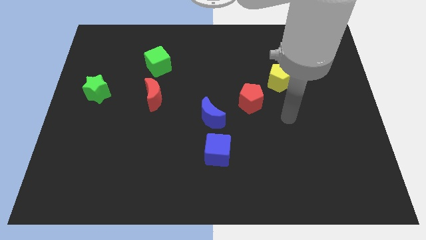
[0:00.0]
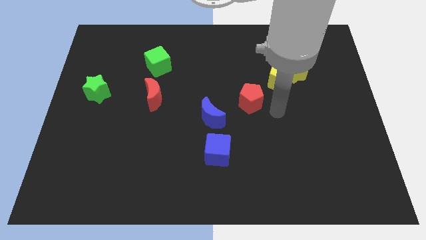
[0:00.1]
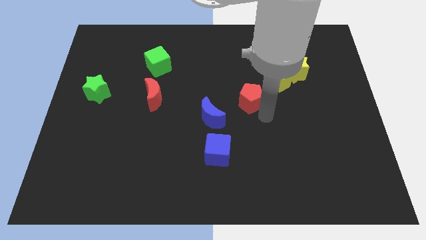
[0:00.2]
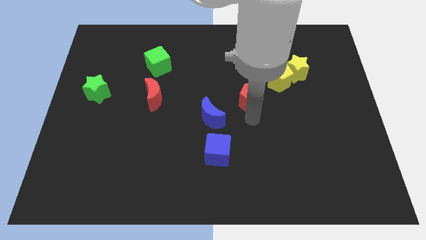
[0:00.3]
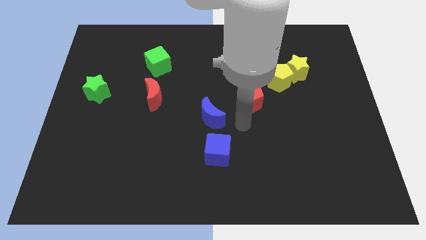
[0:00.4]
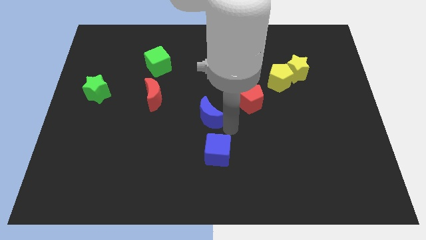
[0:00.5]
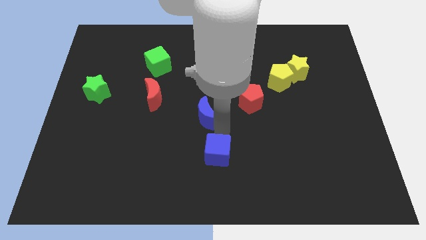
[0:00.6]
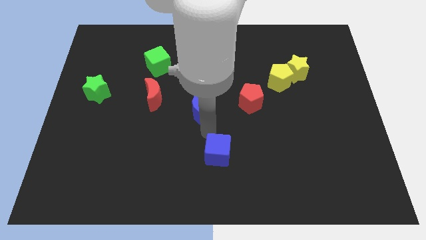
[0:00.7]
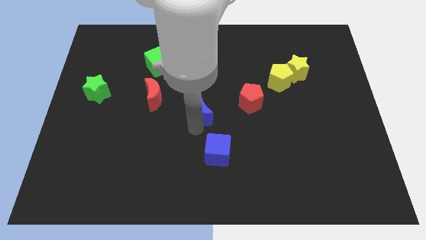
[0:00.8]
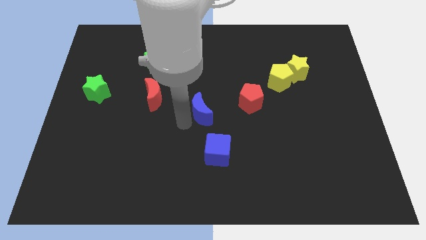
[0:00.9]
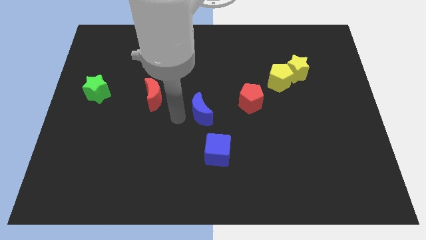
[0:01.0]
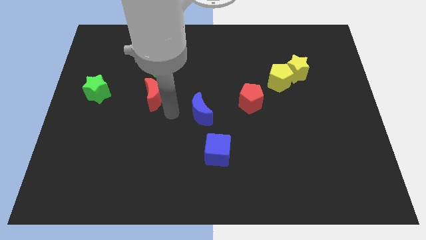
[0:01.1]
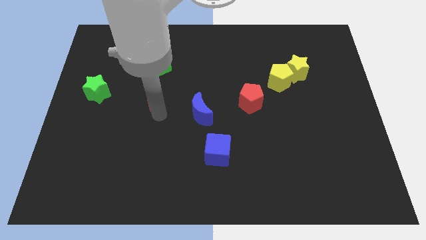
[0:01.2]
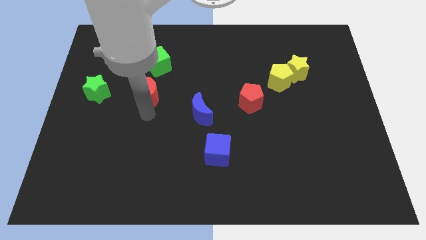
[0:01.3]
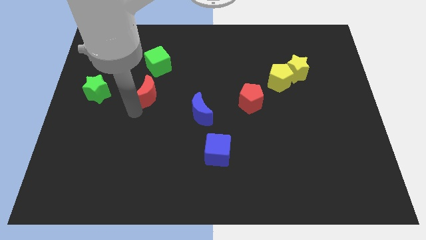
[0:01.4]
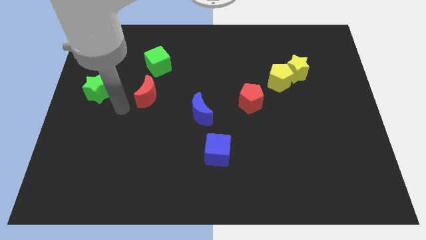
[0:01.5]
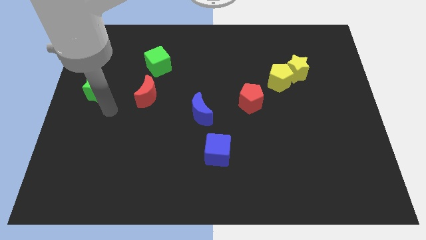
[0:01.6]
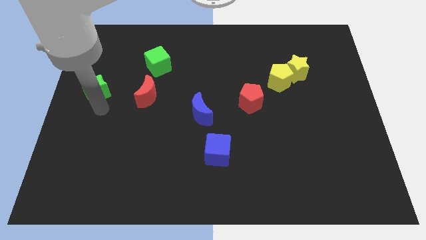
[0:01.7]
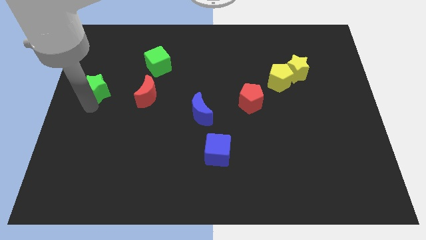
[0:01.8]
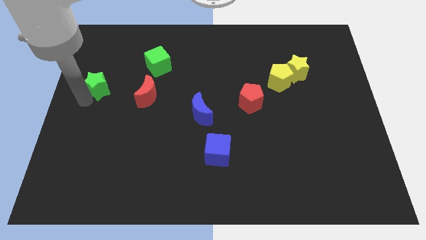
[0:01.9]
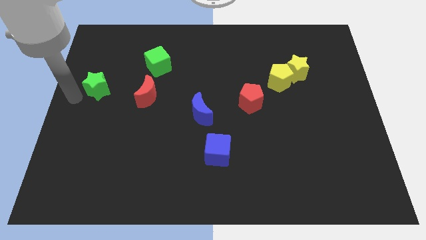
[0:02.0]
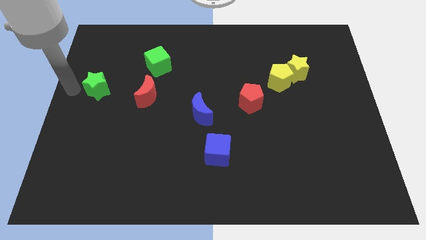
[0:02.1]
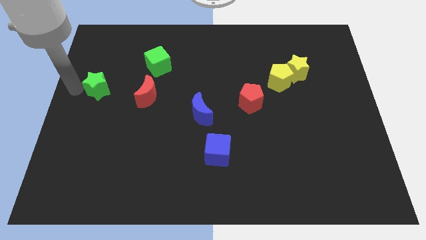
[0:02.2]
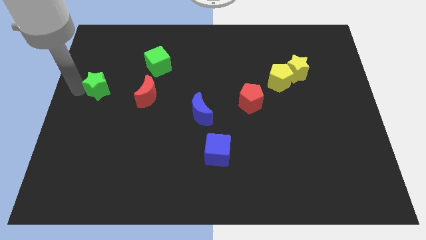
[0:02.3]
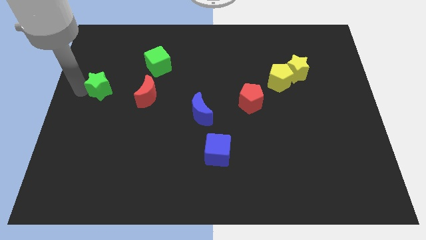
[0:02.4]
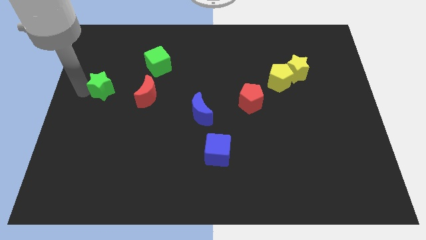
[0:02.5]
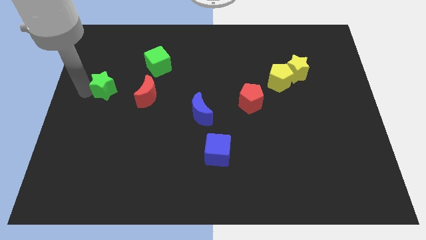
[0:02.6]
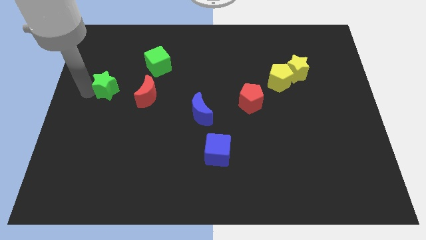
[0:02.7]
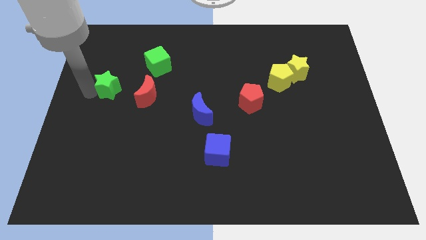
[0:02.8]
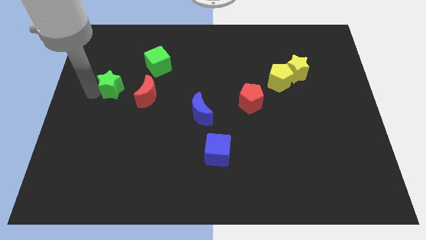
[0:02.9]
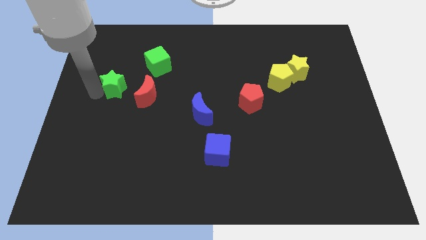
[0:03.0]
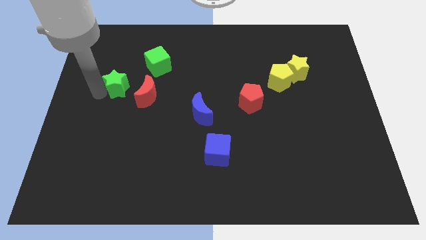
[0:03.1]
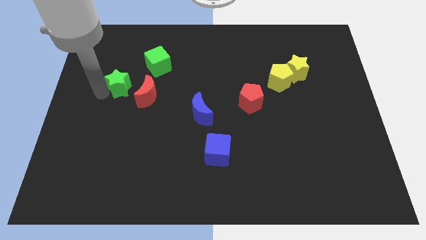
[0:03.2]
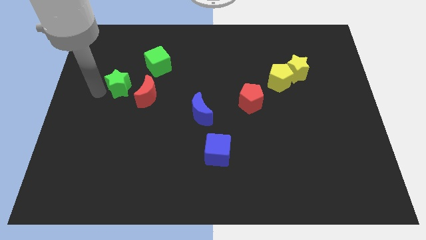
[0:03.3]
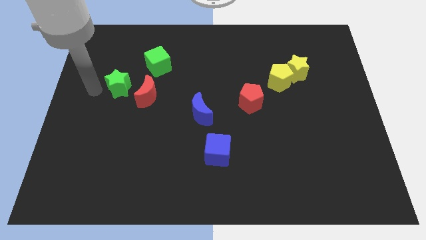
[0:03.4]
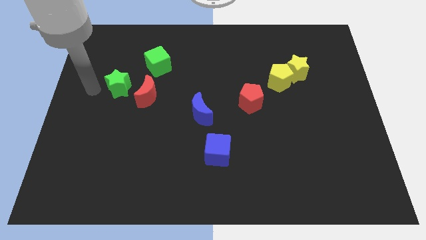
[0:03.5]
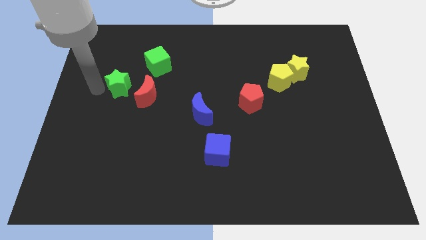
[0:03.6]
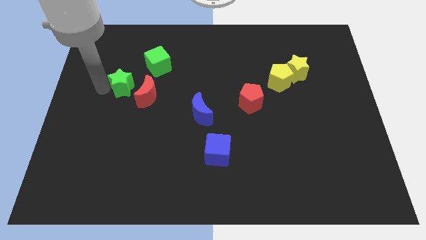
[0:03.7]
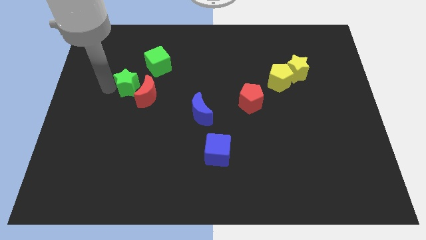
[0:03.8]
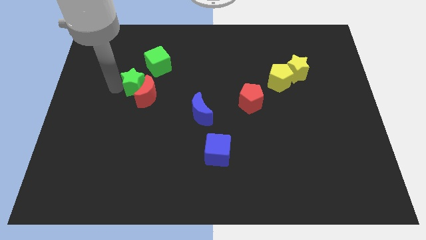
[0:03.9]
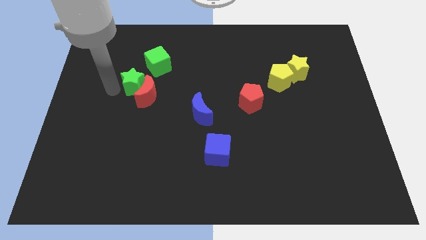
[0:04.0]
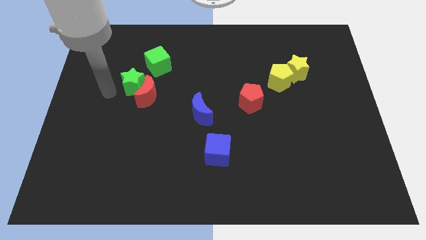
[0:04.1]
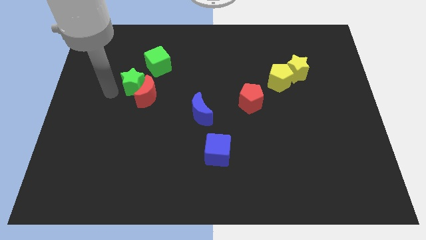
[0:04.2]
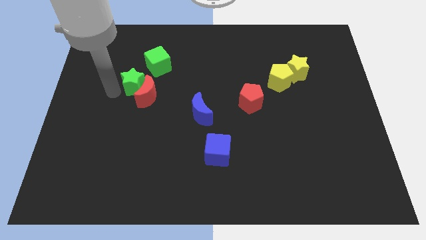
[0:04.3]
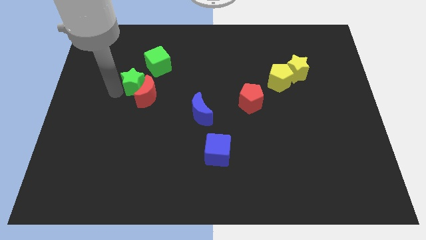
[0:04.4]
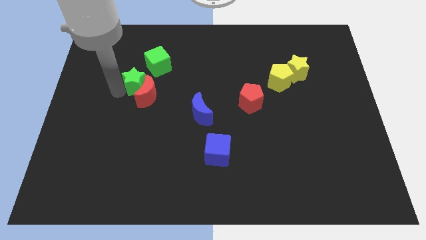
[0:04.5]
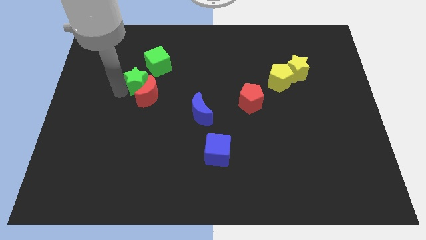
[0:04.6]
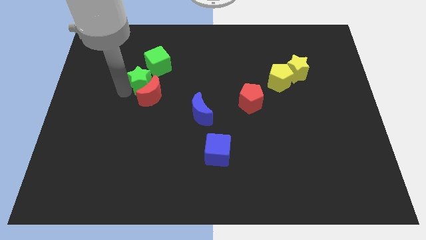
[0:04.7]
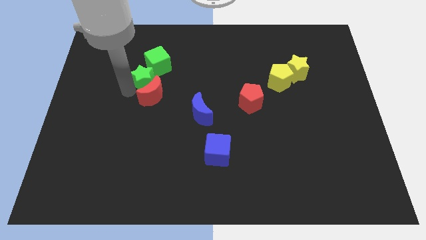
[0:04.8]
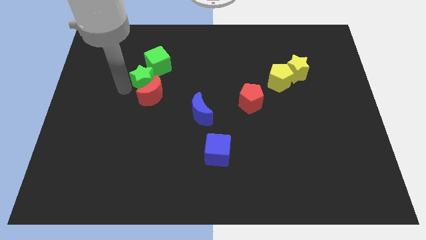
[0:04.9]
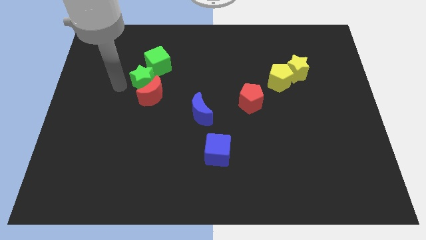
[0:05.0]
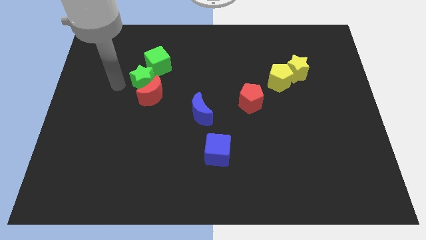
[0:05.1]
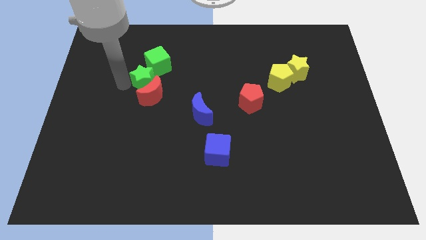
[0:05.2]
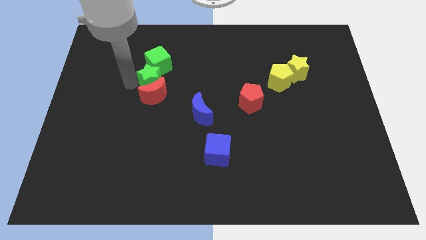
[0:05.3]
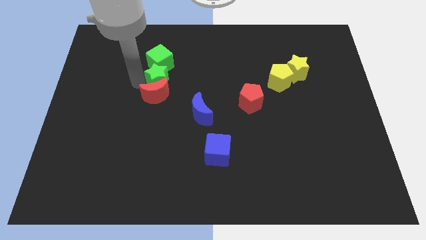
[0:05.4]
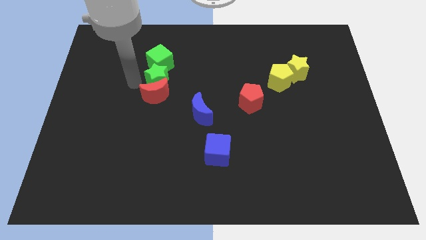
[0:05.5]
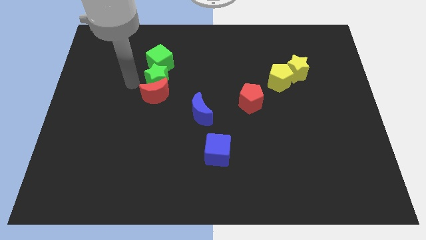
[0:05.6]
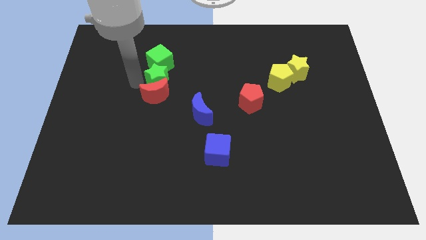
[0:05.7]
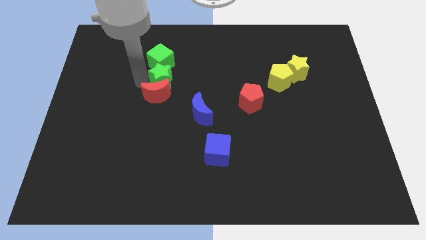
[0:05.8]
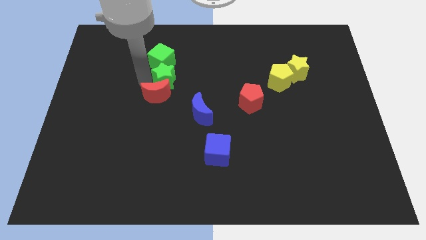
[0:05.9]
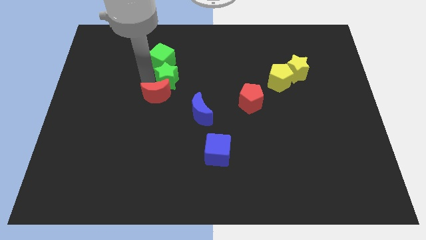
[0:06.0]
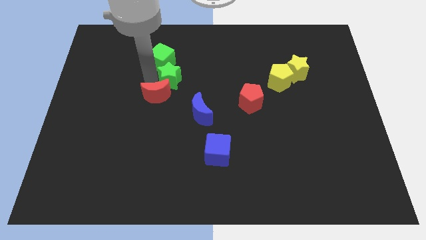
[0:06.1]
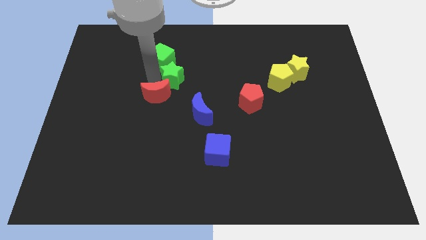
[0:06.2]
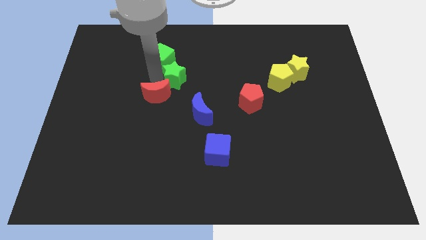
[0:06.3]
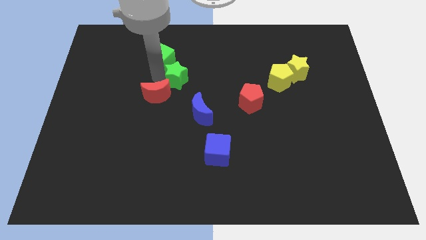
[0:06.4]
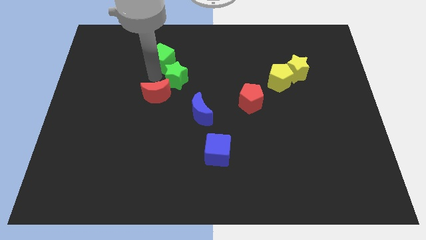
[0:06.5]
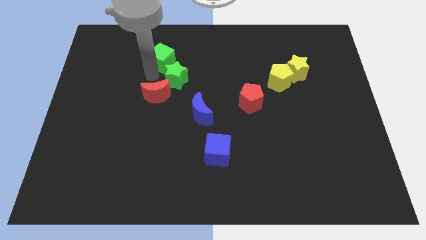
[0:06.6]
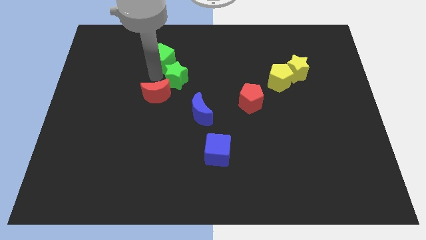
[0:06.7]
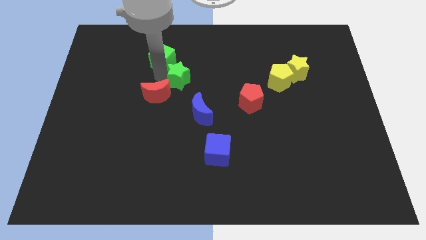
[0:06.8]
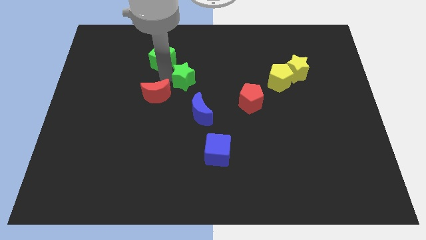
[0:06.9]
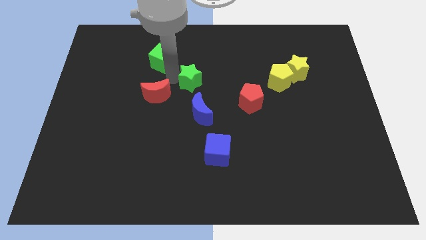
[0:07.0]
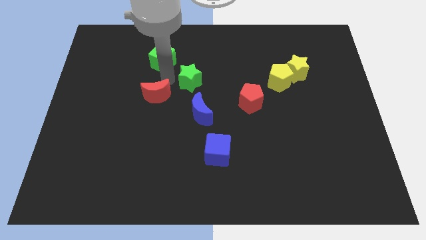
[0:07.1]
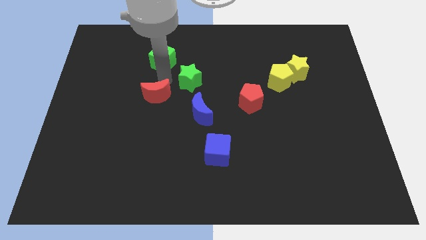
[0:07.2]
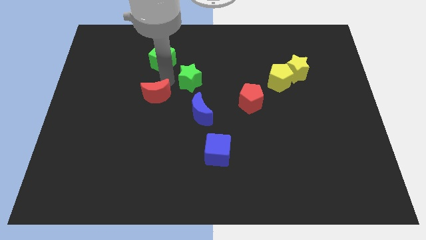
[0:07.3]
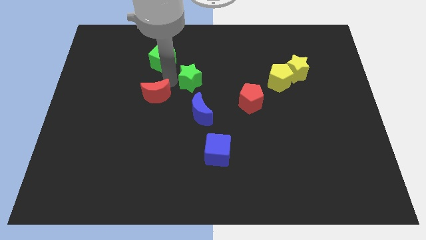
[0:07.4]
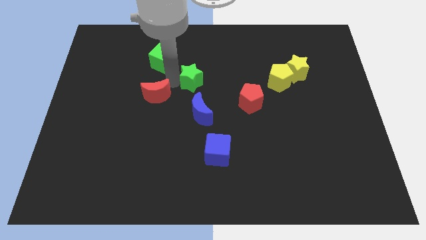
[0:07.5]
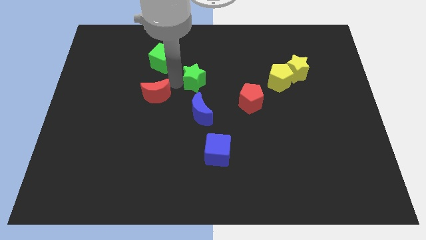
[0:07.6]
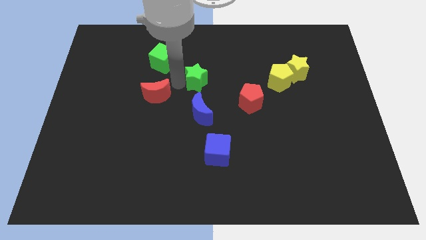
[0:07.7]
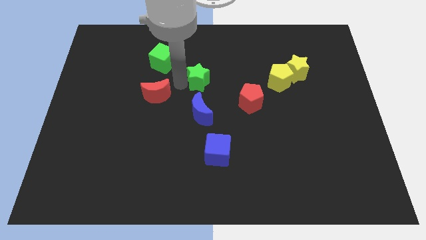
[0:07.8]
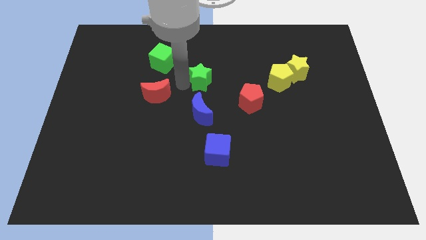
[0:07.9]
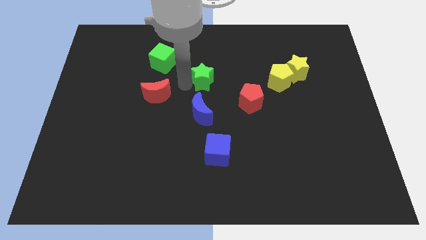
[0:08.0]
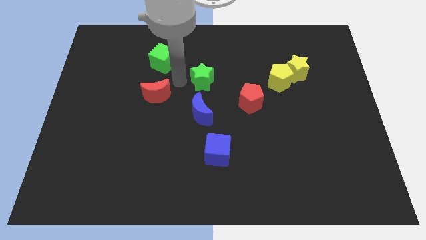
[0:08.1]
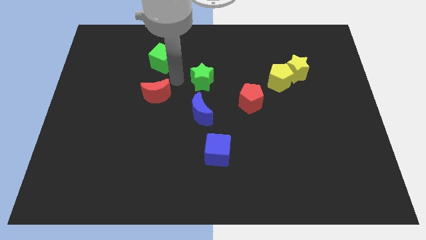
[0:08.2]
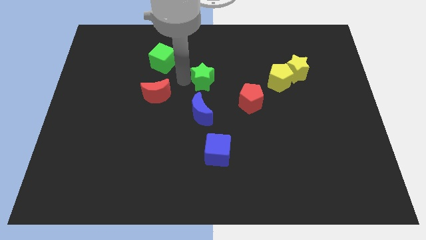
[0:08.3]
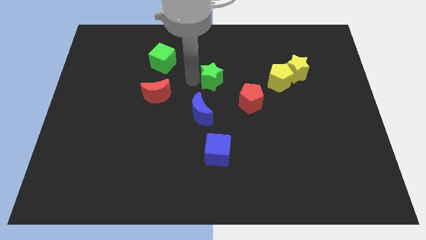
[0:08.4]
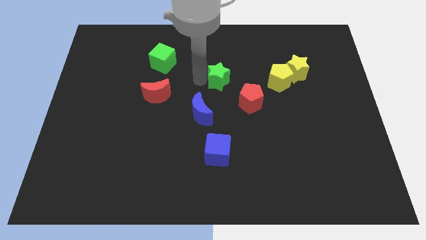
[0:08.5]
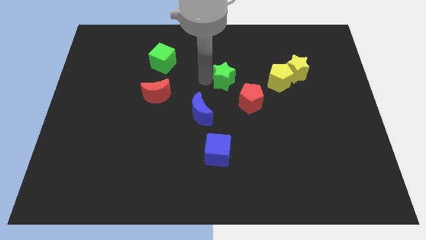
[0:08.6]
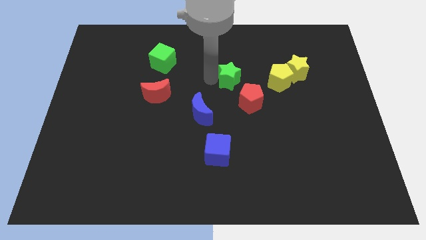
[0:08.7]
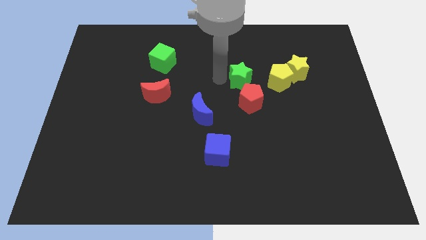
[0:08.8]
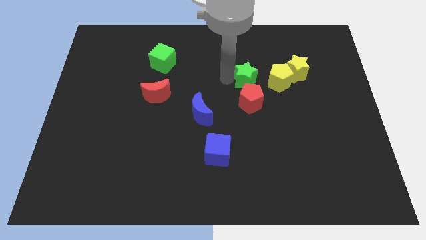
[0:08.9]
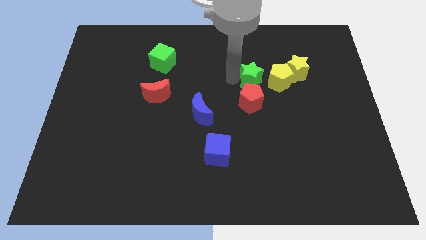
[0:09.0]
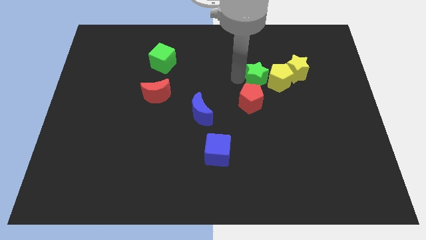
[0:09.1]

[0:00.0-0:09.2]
move the green star next to the yellow pentagon
